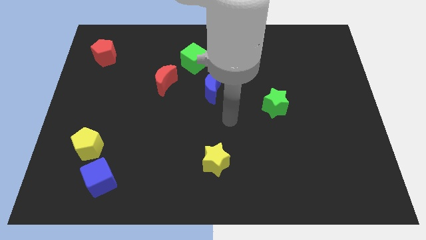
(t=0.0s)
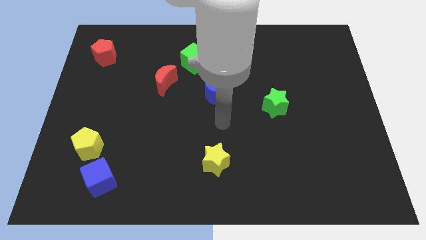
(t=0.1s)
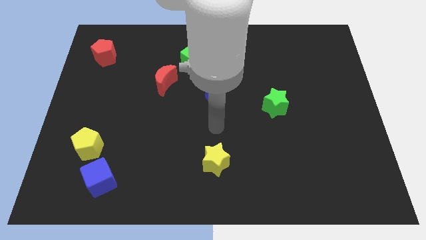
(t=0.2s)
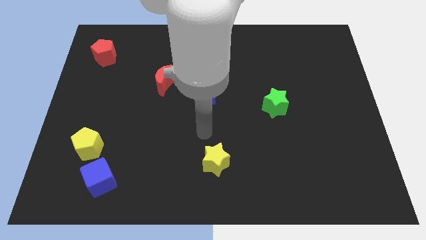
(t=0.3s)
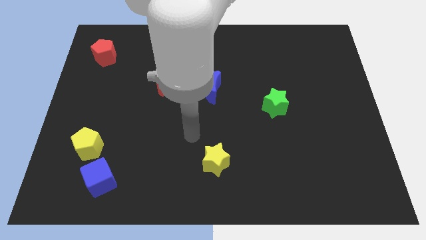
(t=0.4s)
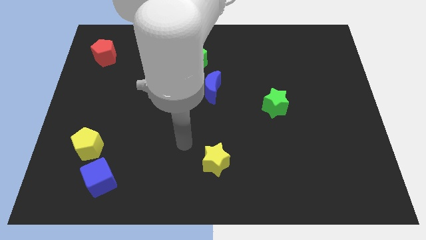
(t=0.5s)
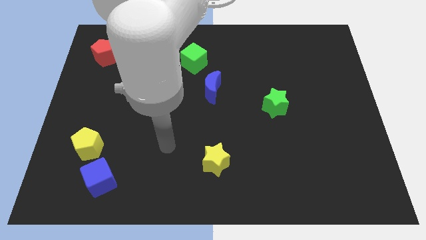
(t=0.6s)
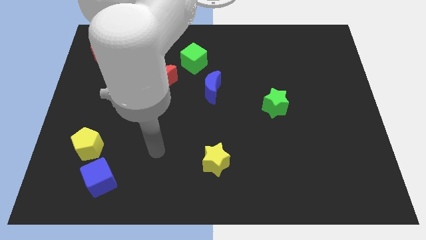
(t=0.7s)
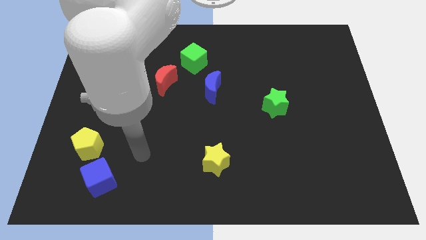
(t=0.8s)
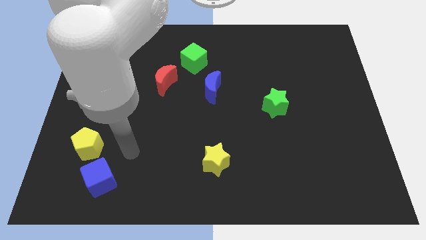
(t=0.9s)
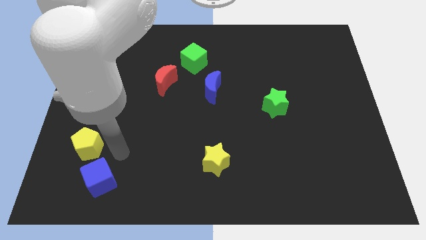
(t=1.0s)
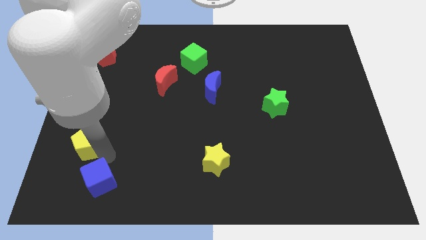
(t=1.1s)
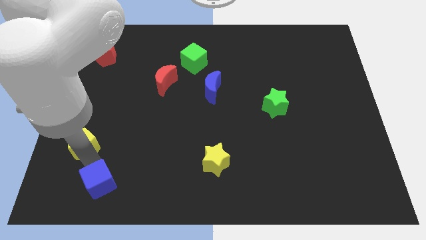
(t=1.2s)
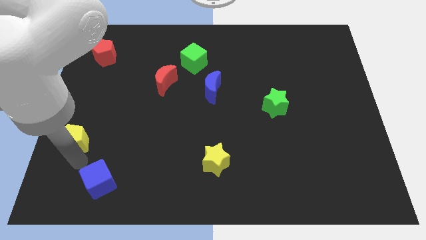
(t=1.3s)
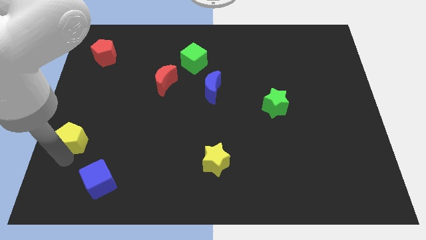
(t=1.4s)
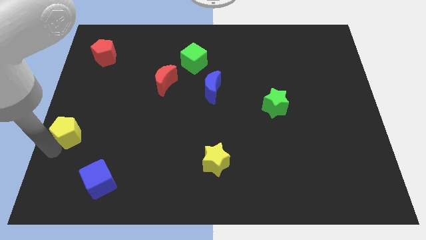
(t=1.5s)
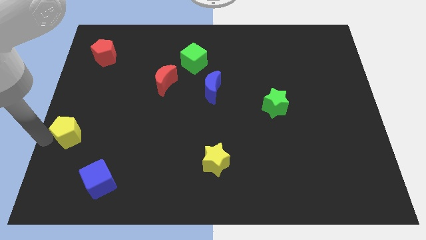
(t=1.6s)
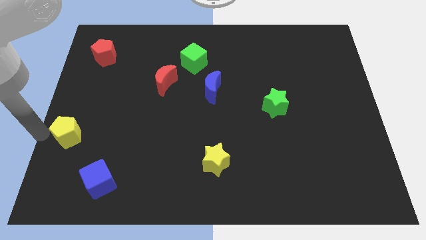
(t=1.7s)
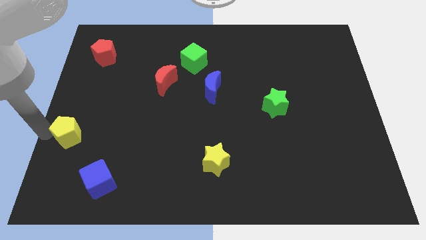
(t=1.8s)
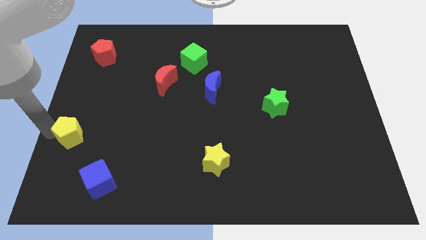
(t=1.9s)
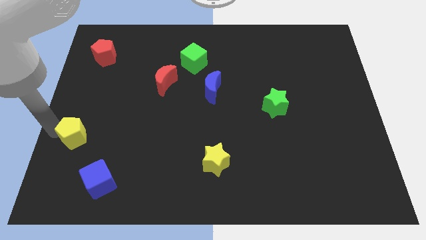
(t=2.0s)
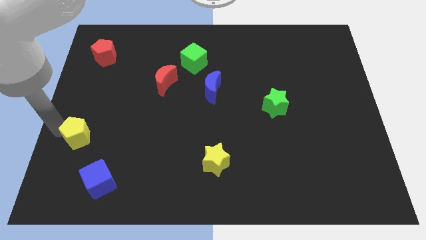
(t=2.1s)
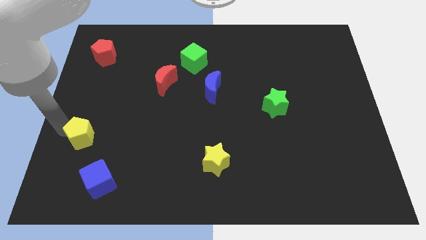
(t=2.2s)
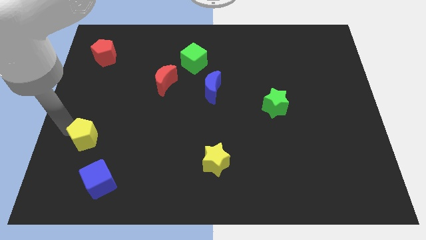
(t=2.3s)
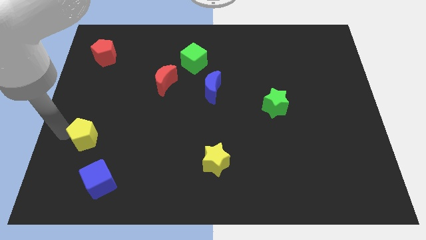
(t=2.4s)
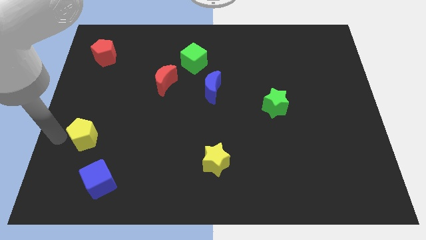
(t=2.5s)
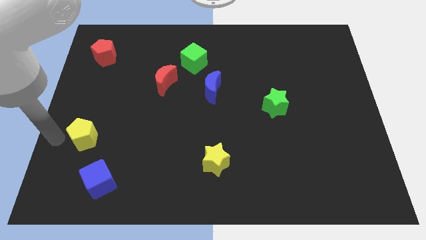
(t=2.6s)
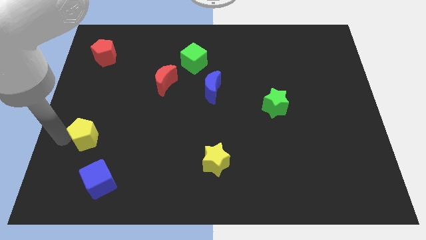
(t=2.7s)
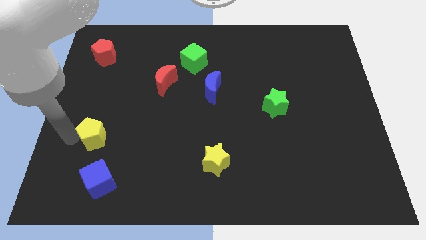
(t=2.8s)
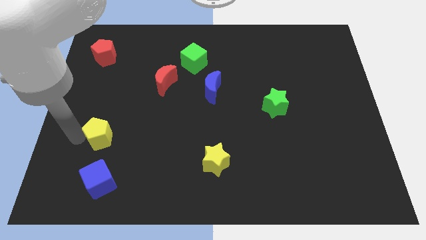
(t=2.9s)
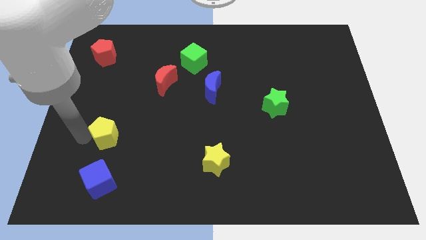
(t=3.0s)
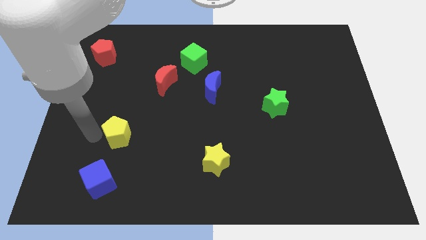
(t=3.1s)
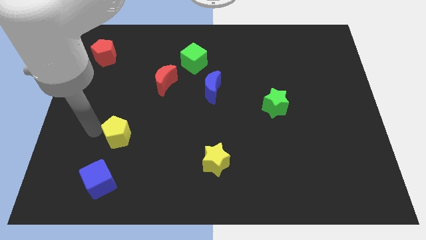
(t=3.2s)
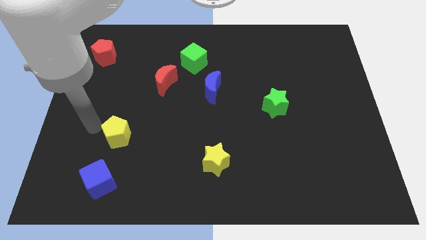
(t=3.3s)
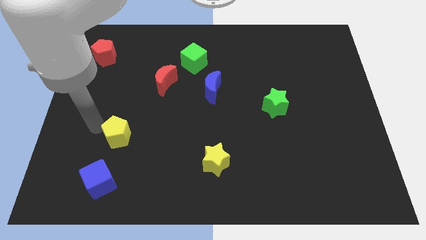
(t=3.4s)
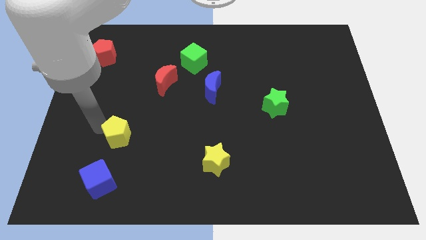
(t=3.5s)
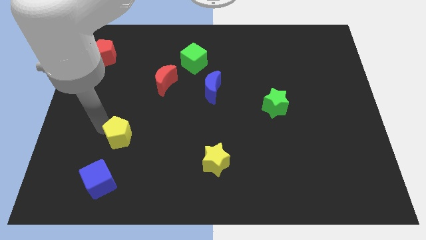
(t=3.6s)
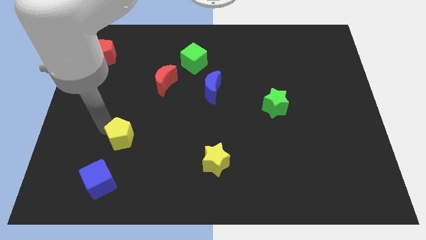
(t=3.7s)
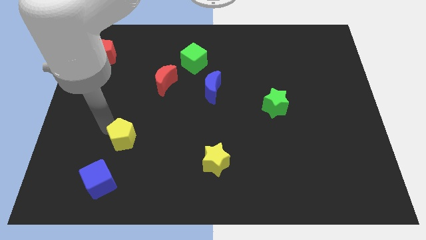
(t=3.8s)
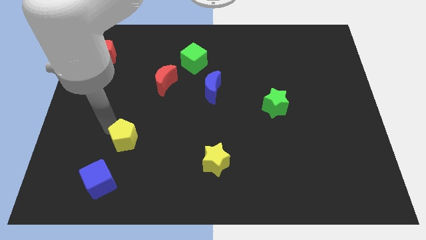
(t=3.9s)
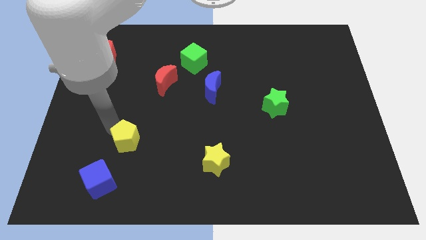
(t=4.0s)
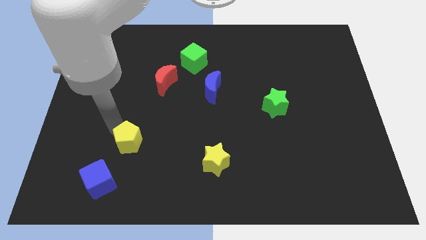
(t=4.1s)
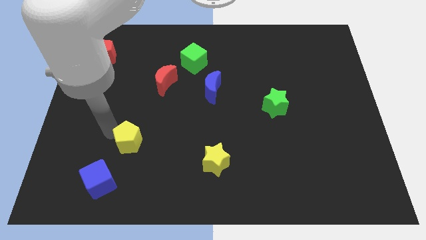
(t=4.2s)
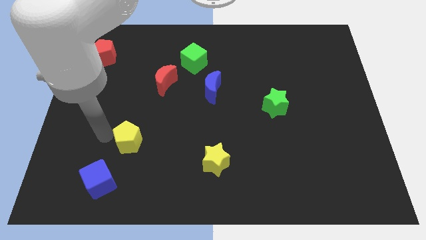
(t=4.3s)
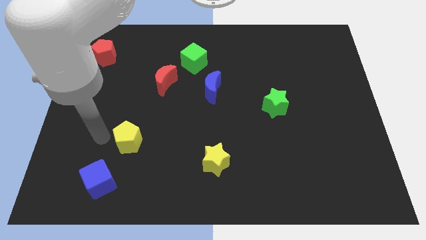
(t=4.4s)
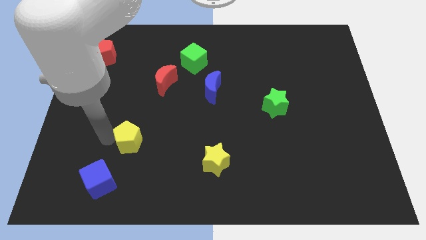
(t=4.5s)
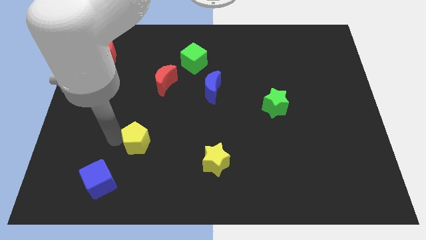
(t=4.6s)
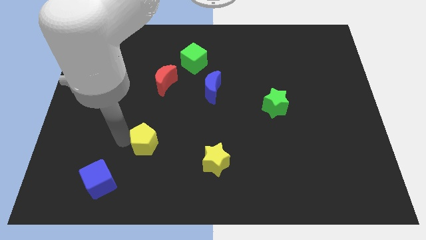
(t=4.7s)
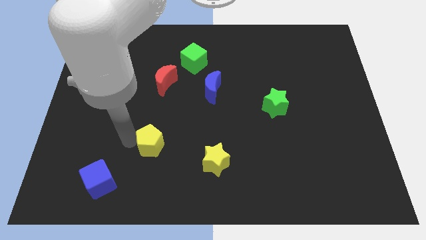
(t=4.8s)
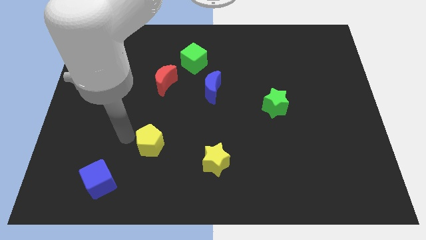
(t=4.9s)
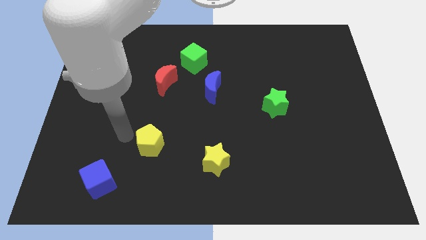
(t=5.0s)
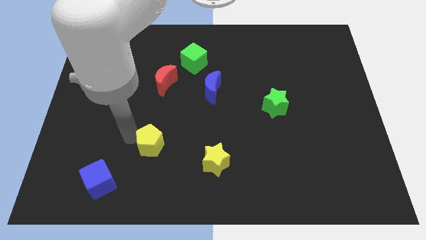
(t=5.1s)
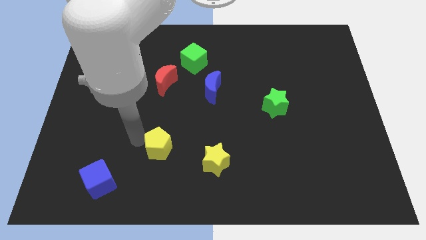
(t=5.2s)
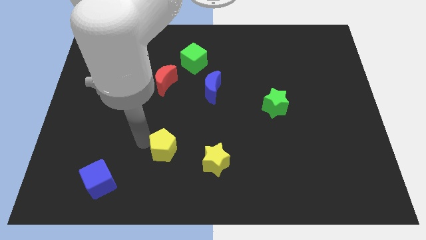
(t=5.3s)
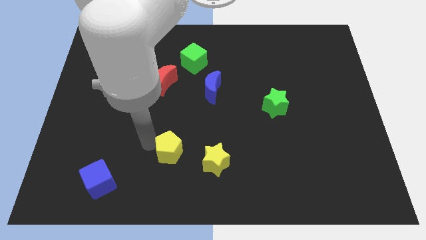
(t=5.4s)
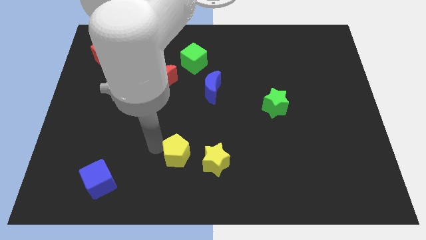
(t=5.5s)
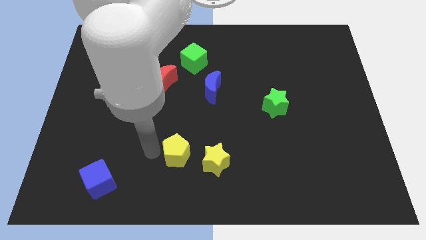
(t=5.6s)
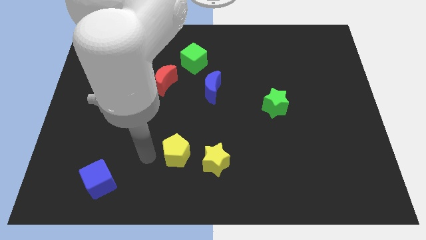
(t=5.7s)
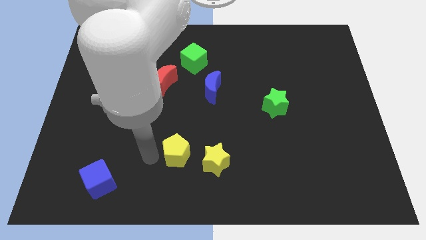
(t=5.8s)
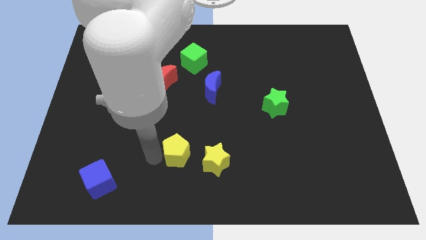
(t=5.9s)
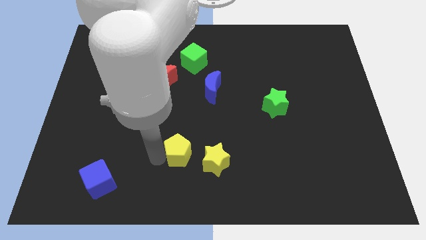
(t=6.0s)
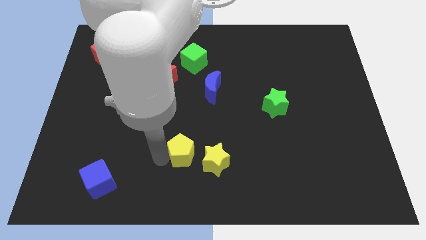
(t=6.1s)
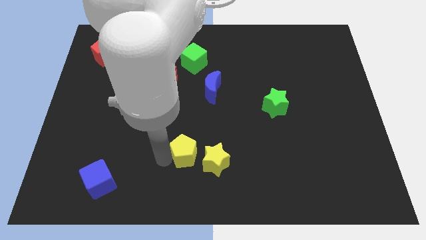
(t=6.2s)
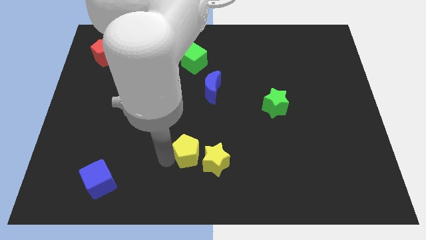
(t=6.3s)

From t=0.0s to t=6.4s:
move the yellow pentagon next to the yellow star
